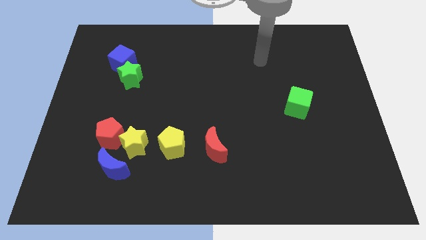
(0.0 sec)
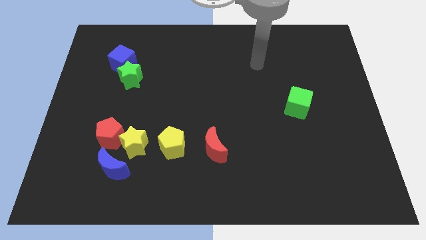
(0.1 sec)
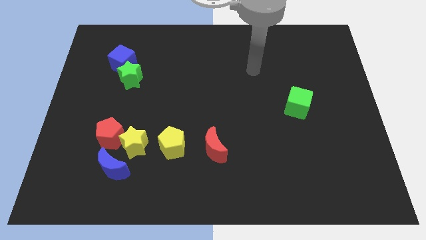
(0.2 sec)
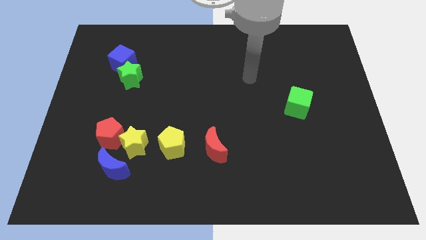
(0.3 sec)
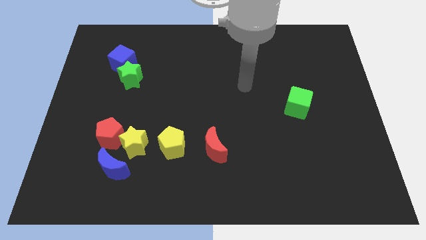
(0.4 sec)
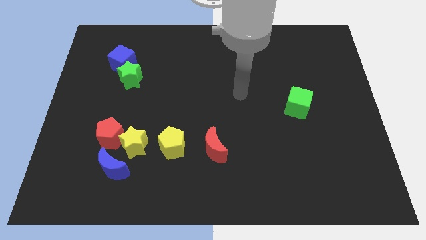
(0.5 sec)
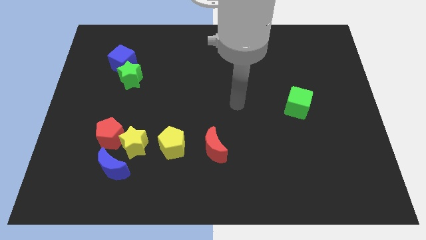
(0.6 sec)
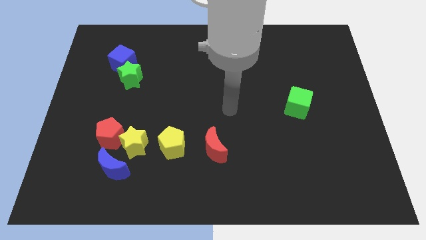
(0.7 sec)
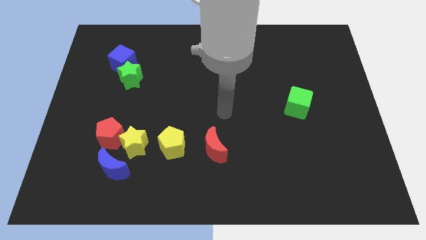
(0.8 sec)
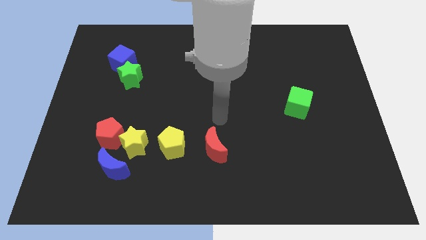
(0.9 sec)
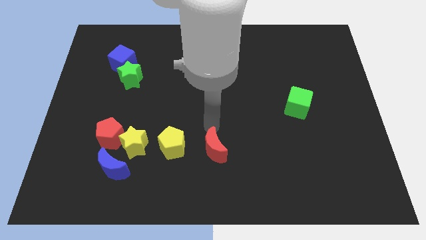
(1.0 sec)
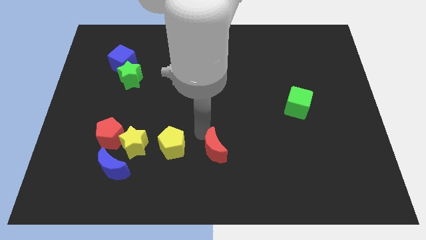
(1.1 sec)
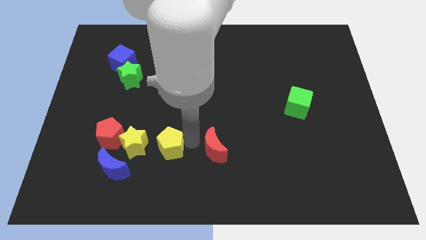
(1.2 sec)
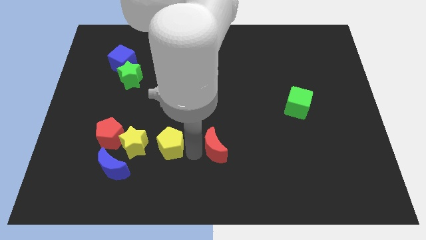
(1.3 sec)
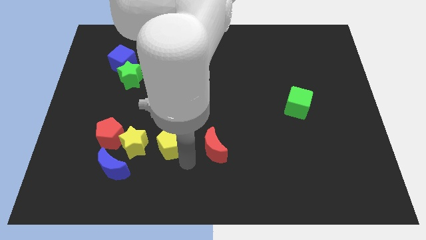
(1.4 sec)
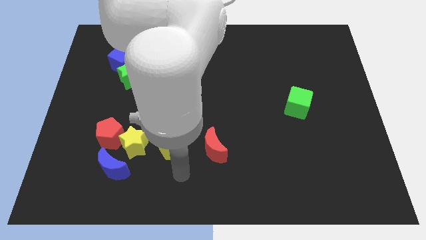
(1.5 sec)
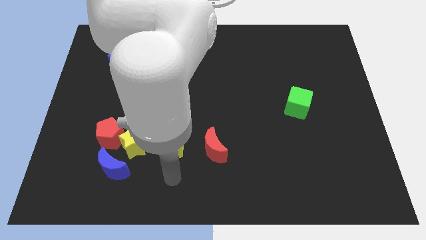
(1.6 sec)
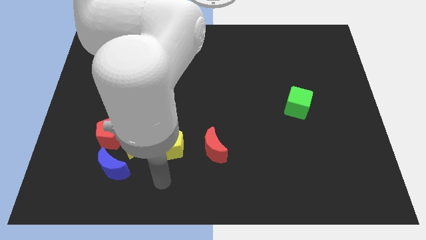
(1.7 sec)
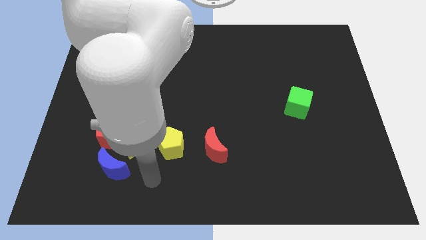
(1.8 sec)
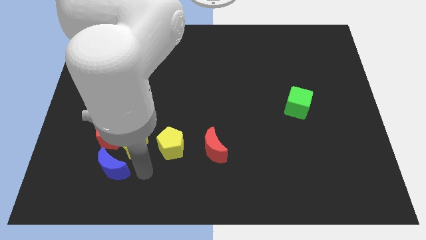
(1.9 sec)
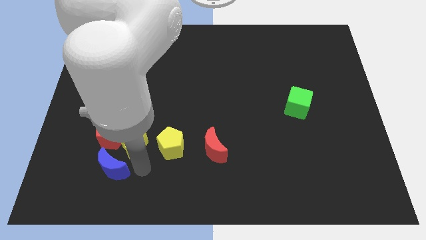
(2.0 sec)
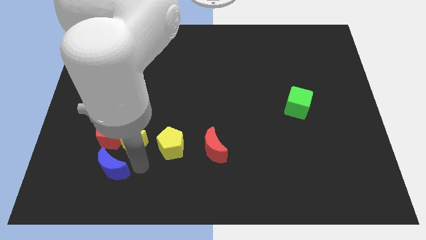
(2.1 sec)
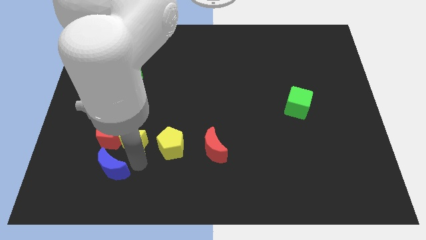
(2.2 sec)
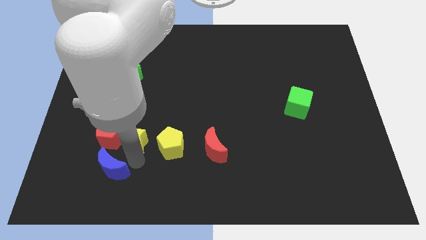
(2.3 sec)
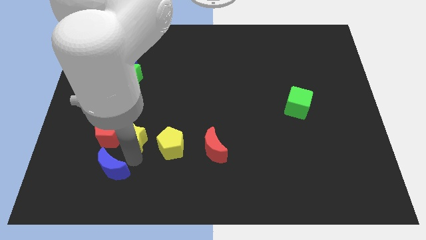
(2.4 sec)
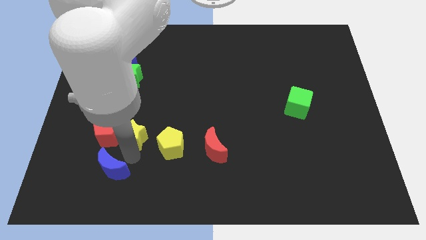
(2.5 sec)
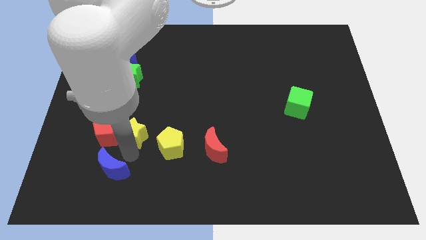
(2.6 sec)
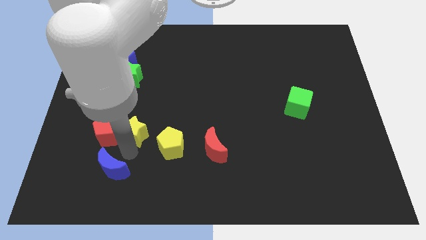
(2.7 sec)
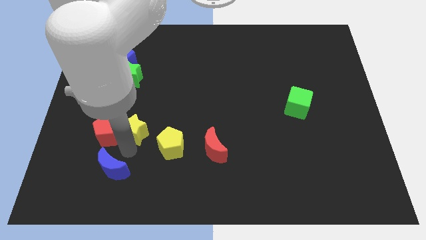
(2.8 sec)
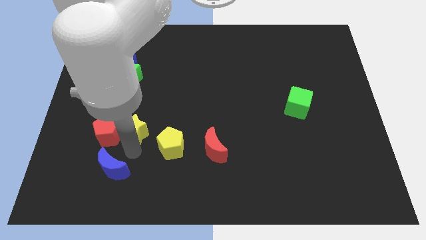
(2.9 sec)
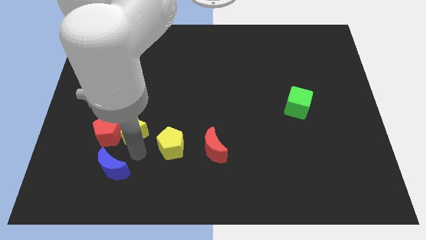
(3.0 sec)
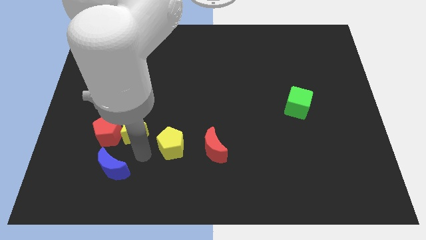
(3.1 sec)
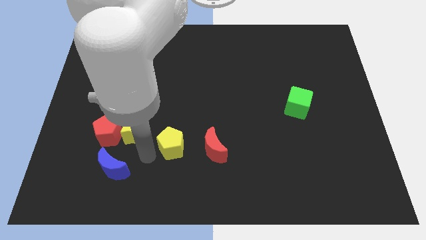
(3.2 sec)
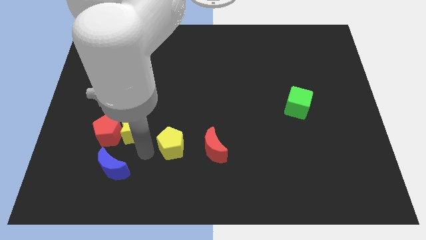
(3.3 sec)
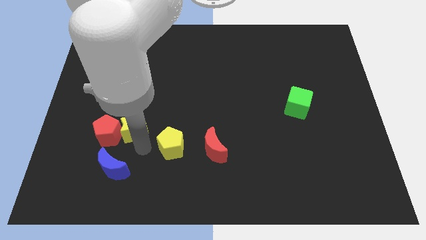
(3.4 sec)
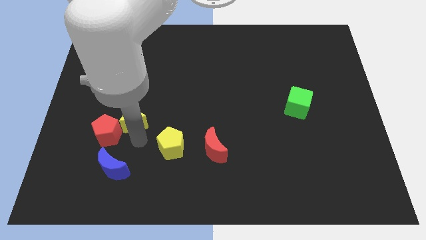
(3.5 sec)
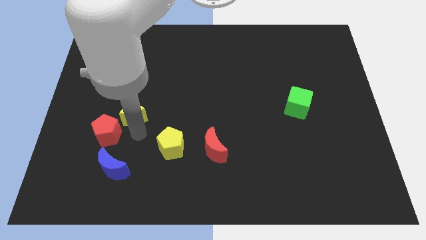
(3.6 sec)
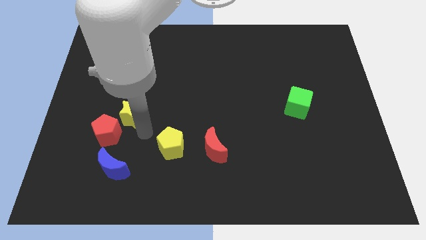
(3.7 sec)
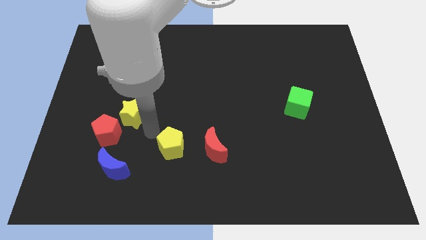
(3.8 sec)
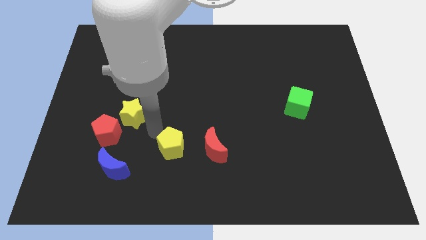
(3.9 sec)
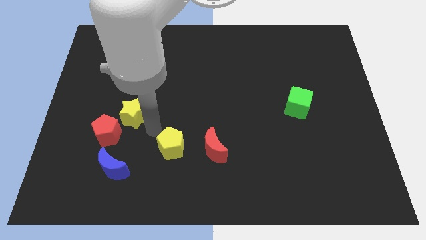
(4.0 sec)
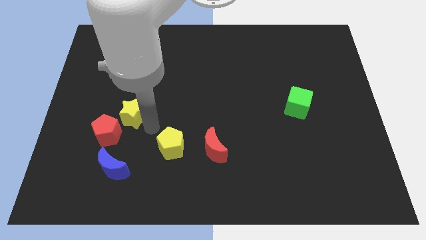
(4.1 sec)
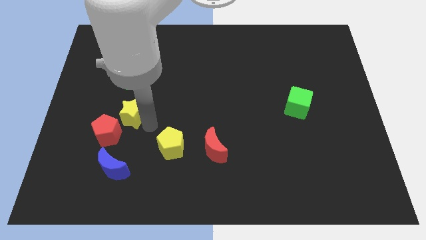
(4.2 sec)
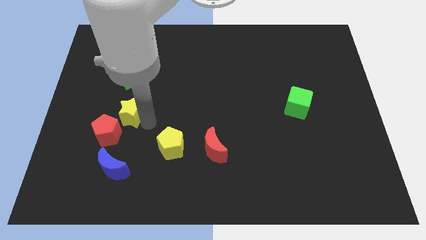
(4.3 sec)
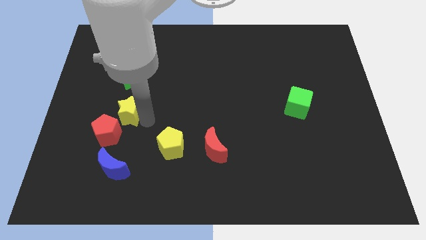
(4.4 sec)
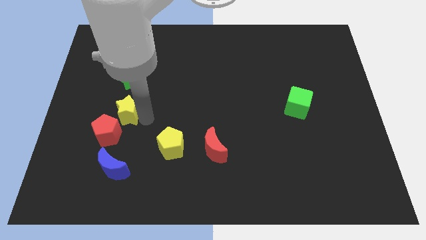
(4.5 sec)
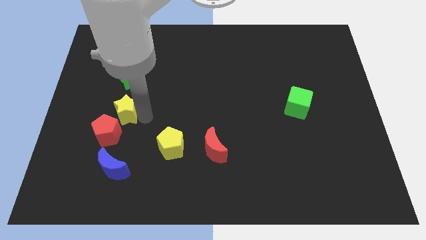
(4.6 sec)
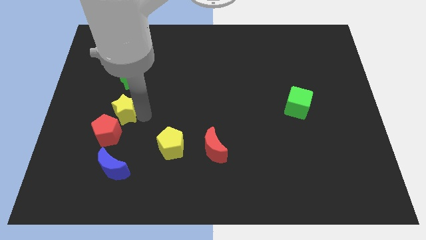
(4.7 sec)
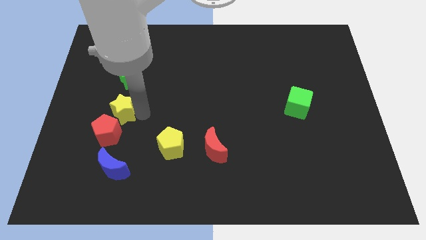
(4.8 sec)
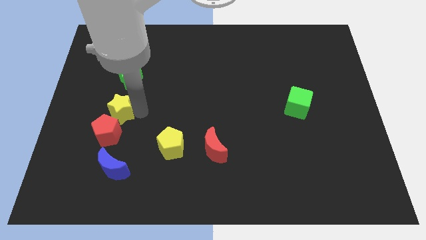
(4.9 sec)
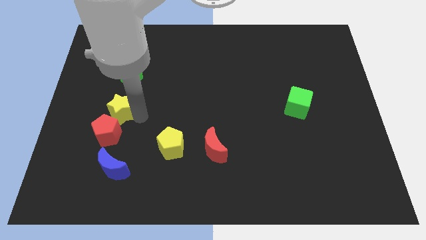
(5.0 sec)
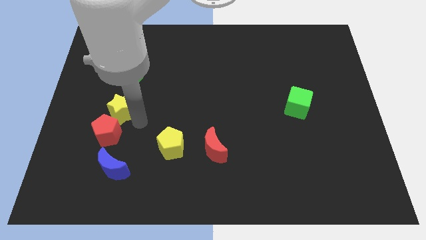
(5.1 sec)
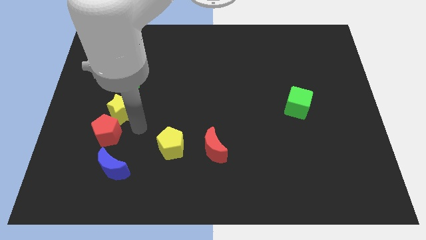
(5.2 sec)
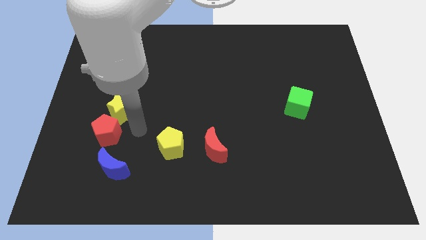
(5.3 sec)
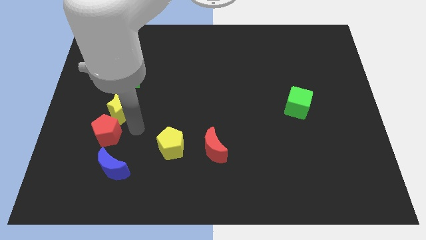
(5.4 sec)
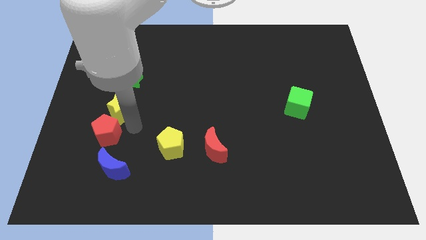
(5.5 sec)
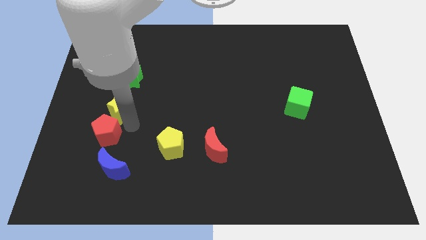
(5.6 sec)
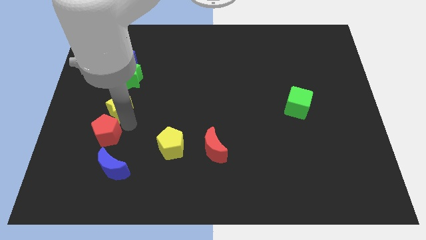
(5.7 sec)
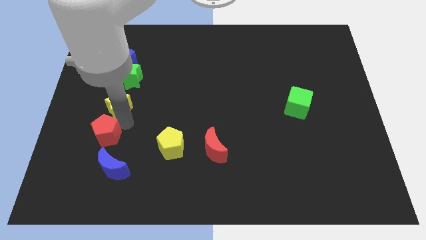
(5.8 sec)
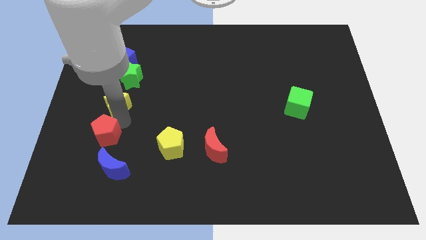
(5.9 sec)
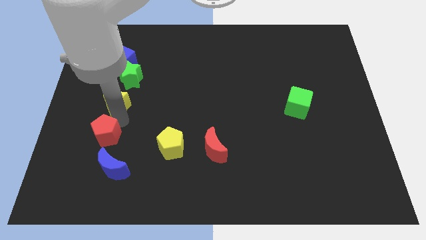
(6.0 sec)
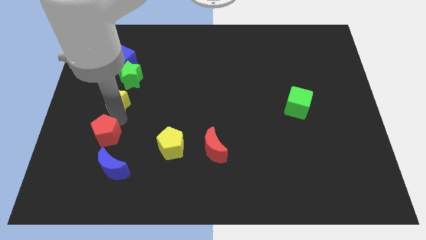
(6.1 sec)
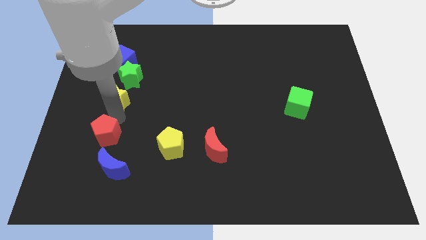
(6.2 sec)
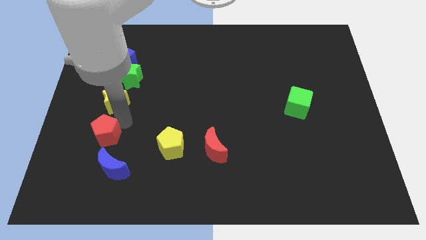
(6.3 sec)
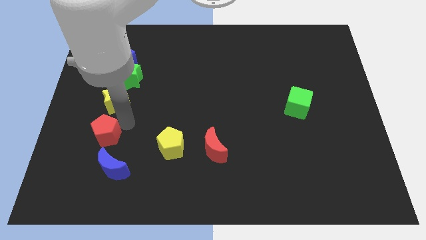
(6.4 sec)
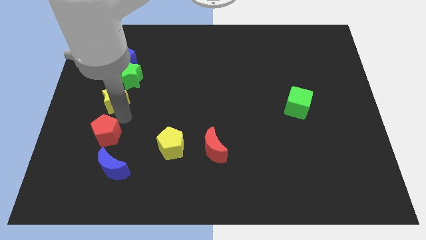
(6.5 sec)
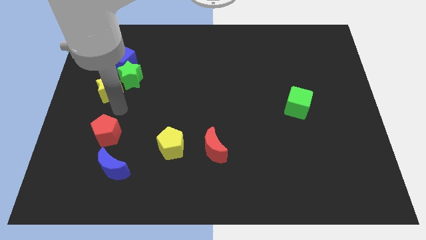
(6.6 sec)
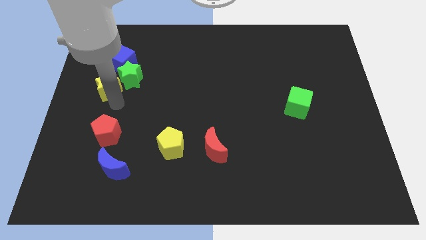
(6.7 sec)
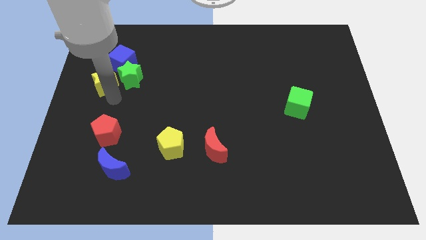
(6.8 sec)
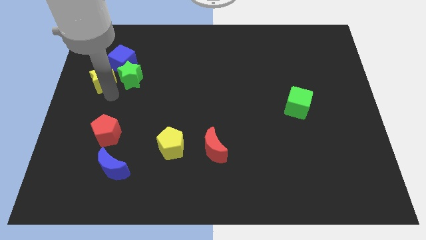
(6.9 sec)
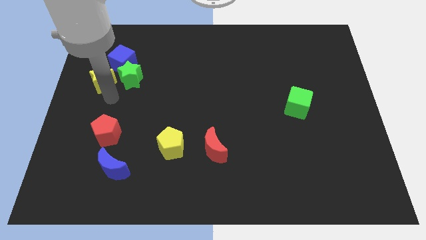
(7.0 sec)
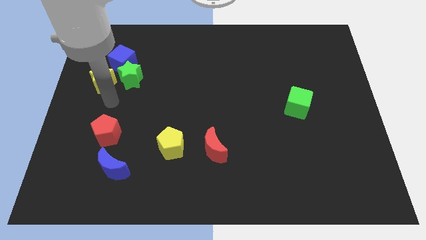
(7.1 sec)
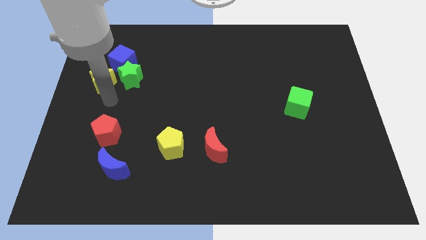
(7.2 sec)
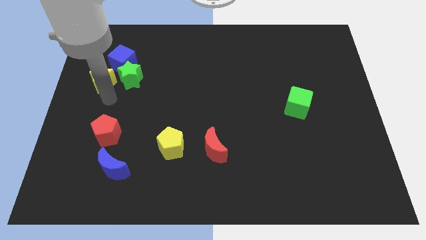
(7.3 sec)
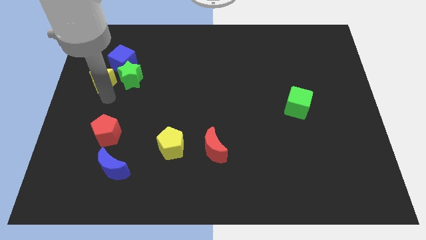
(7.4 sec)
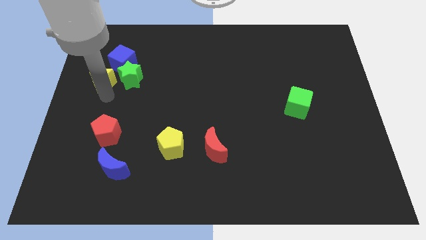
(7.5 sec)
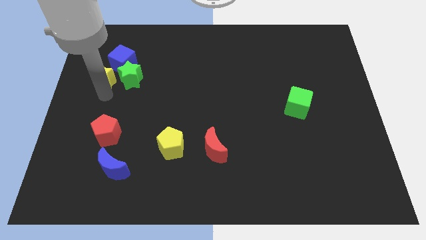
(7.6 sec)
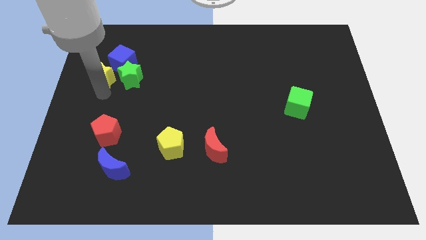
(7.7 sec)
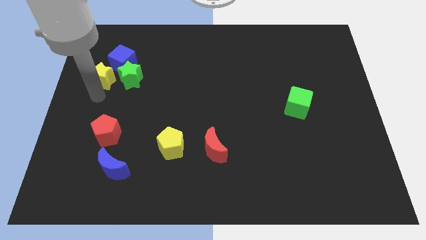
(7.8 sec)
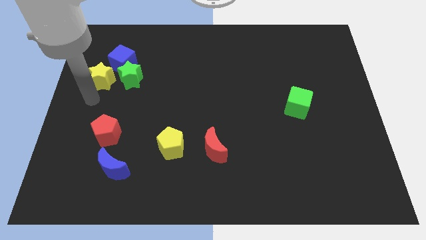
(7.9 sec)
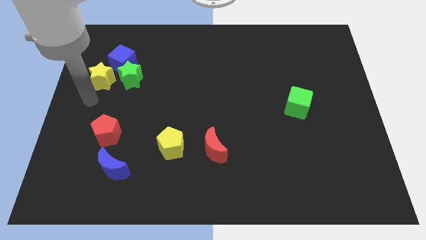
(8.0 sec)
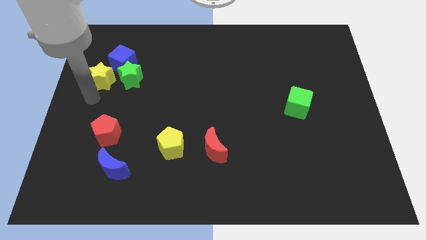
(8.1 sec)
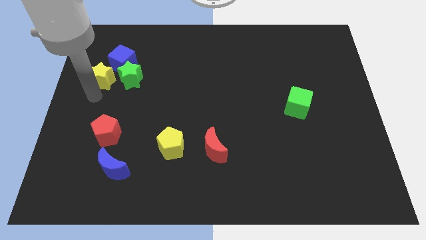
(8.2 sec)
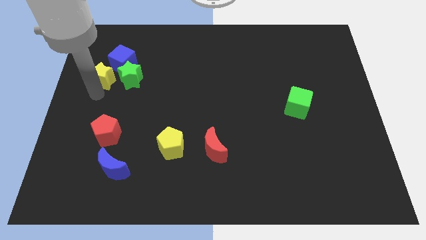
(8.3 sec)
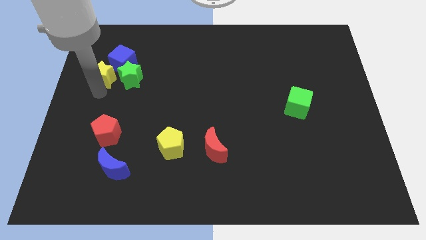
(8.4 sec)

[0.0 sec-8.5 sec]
slide the yellow star to the top left side of the green star
